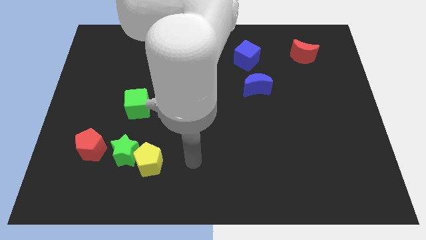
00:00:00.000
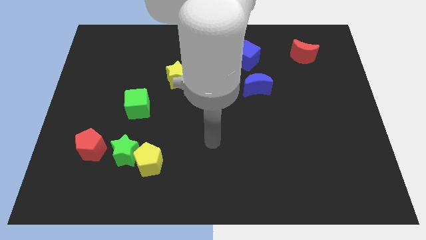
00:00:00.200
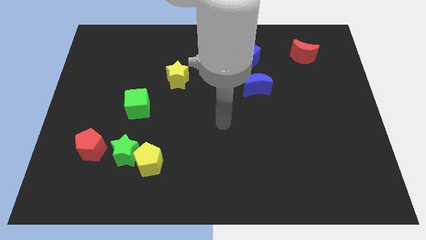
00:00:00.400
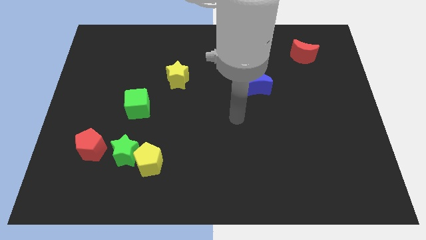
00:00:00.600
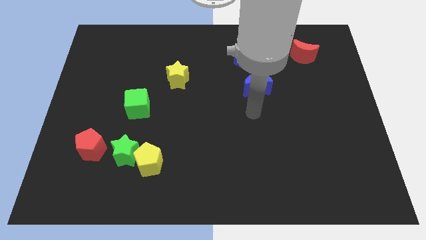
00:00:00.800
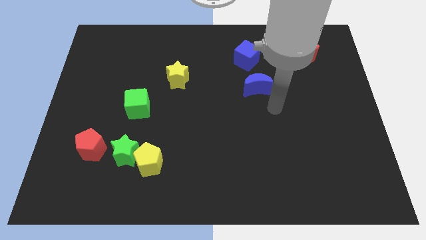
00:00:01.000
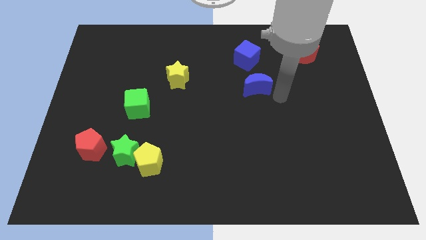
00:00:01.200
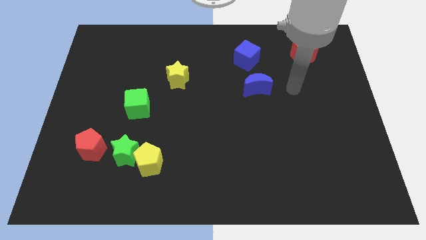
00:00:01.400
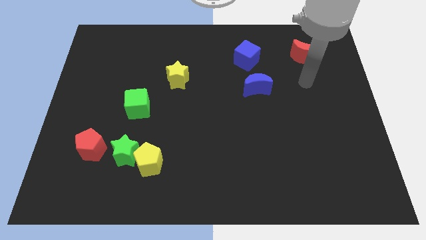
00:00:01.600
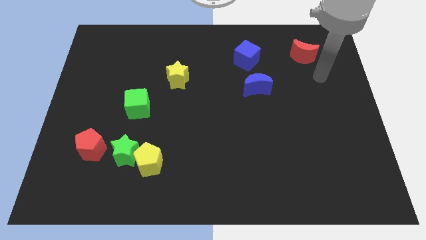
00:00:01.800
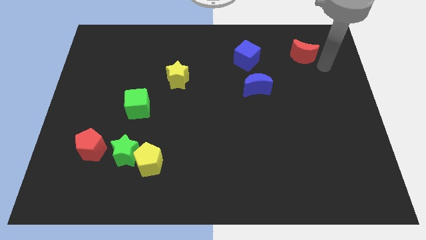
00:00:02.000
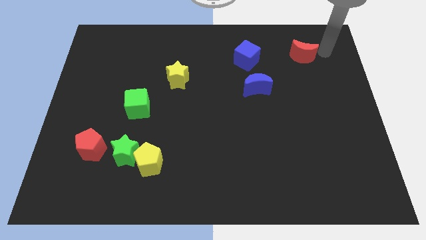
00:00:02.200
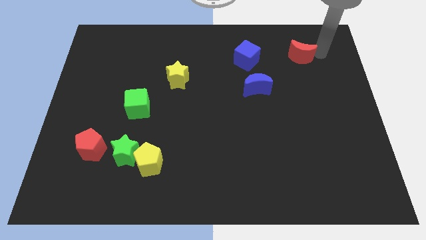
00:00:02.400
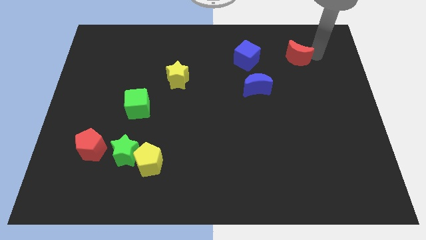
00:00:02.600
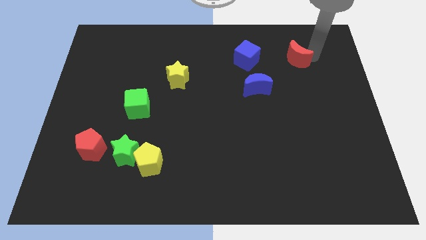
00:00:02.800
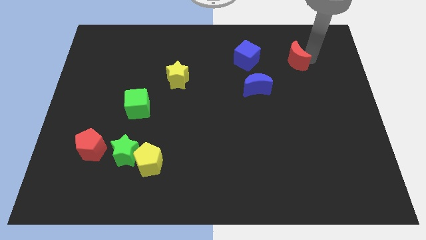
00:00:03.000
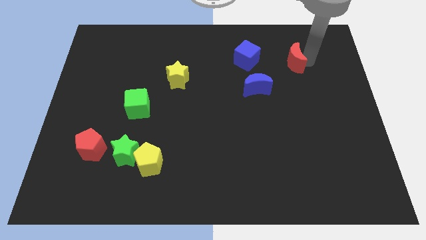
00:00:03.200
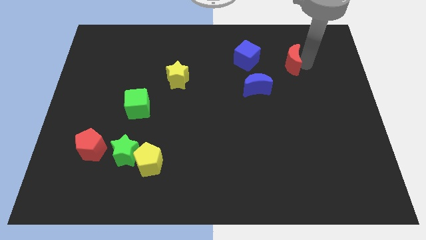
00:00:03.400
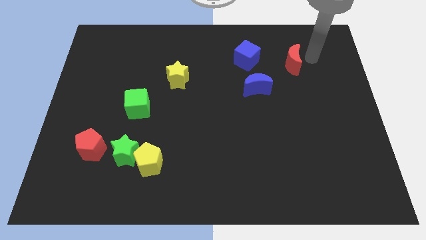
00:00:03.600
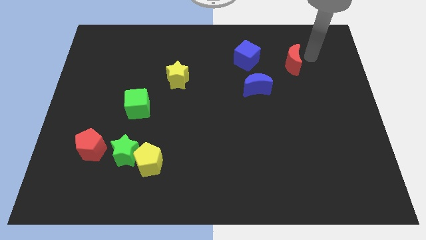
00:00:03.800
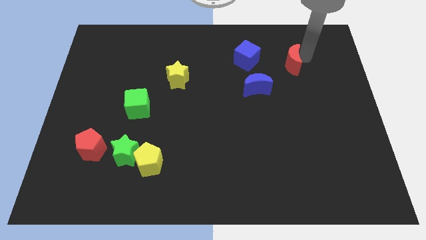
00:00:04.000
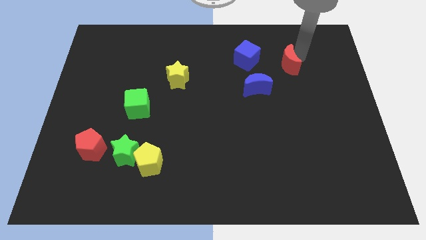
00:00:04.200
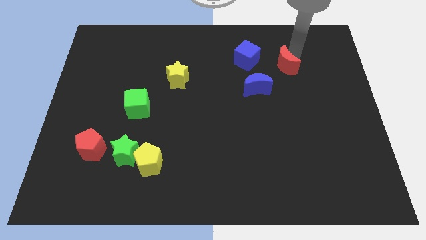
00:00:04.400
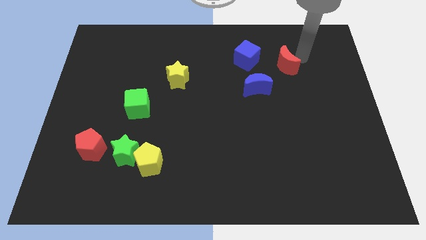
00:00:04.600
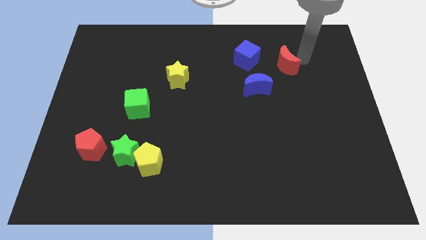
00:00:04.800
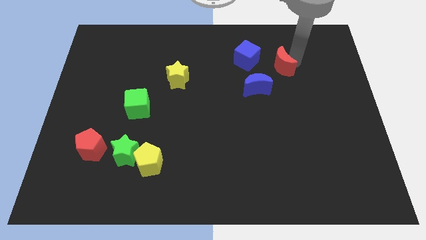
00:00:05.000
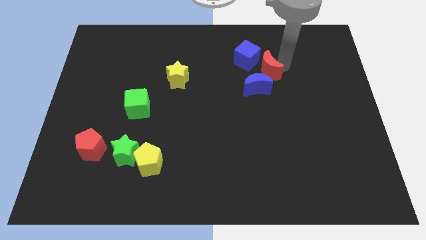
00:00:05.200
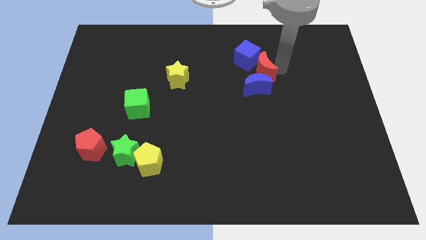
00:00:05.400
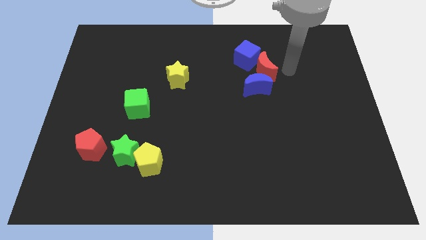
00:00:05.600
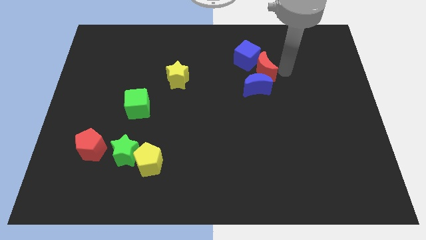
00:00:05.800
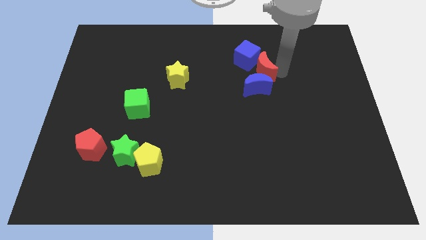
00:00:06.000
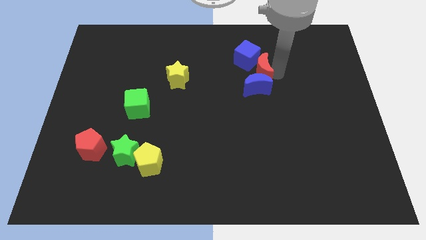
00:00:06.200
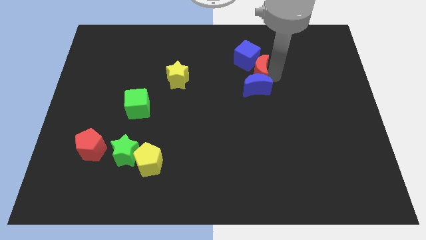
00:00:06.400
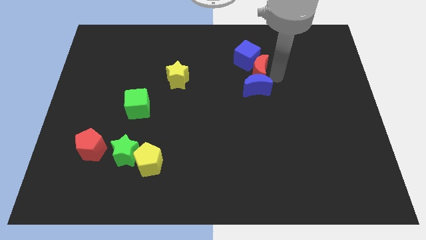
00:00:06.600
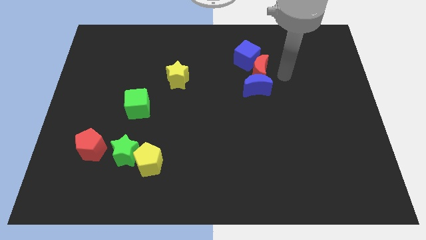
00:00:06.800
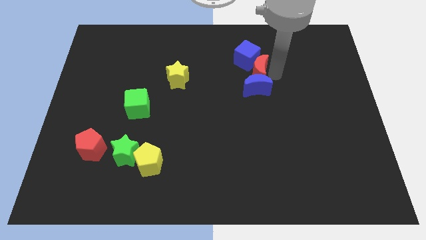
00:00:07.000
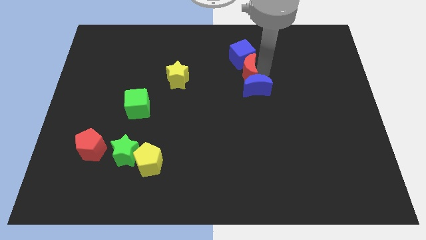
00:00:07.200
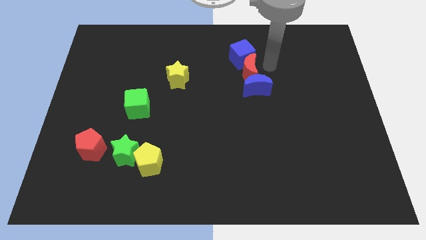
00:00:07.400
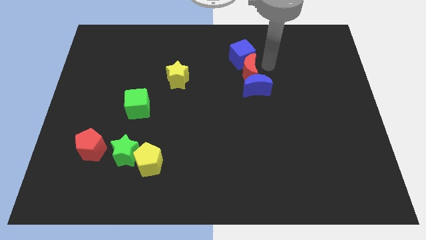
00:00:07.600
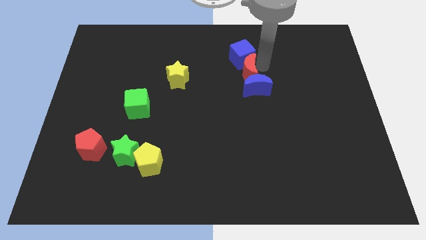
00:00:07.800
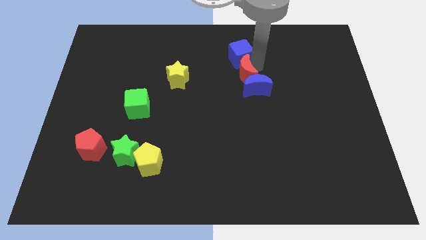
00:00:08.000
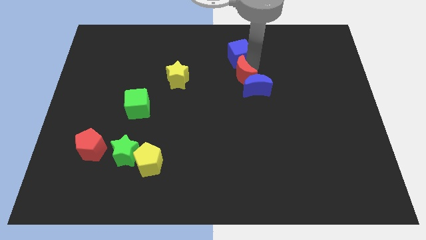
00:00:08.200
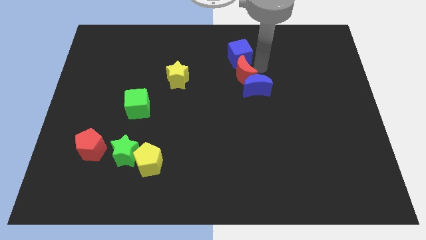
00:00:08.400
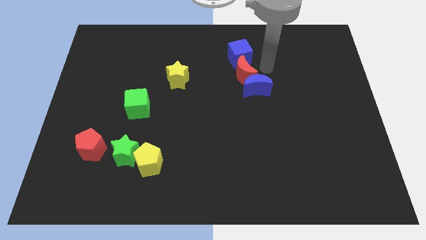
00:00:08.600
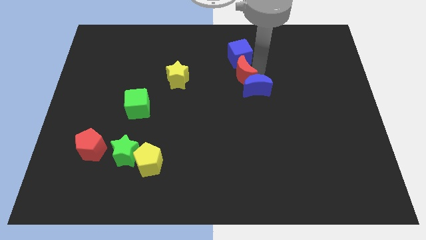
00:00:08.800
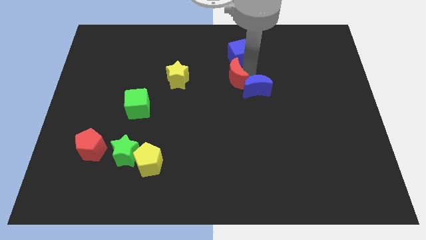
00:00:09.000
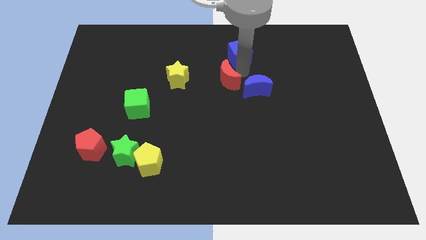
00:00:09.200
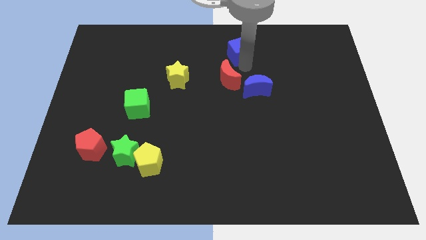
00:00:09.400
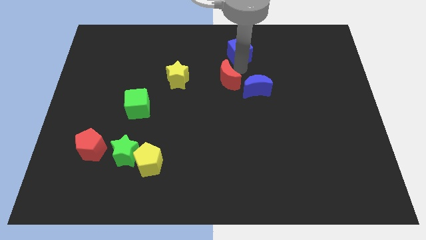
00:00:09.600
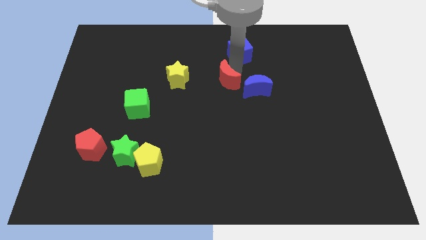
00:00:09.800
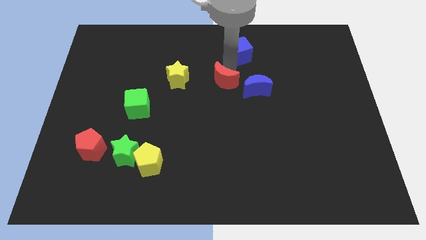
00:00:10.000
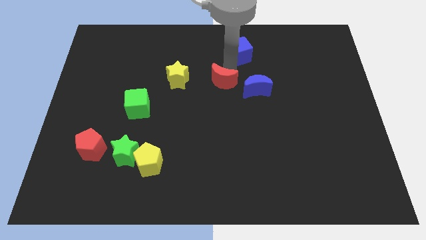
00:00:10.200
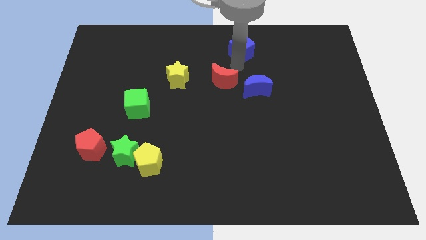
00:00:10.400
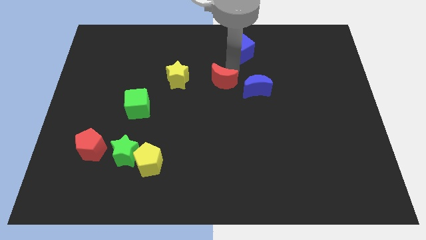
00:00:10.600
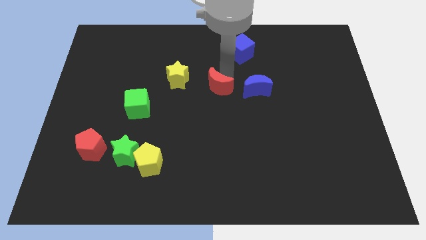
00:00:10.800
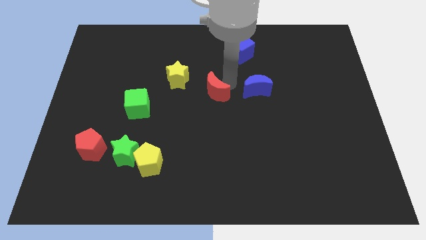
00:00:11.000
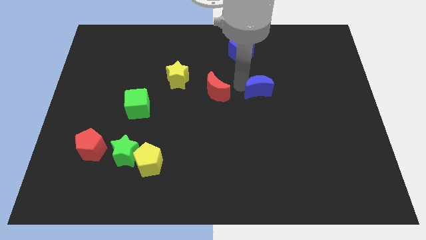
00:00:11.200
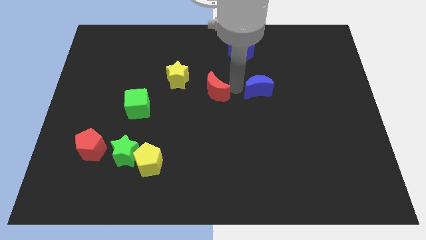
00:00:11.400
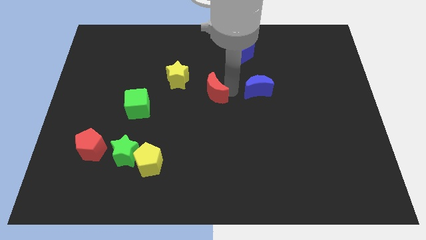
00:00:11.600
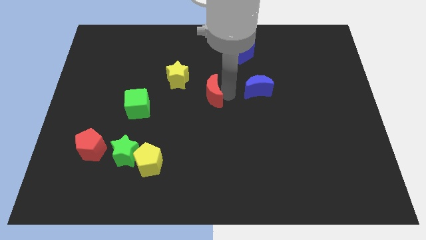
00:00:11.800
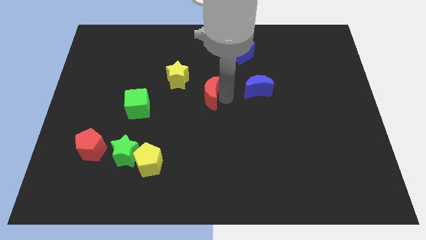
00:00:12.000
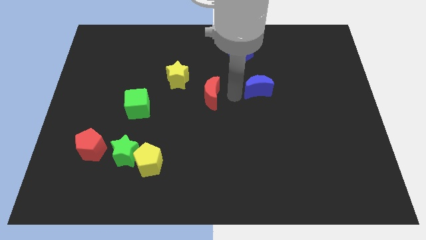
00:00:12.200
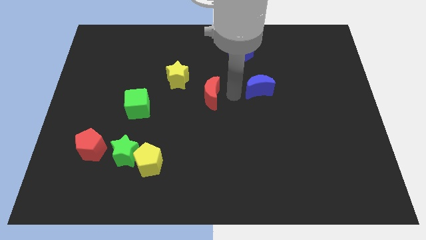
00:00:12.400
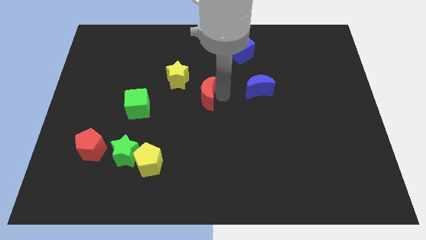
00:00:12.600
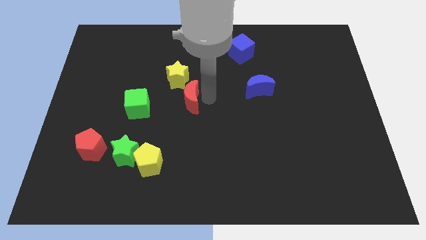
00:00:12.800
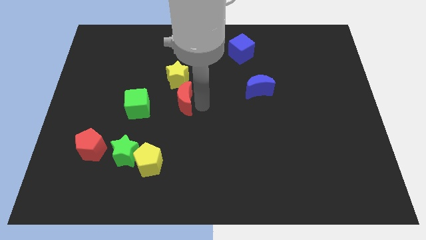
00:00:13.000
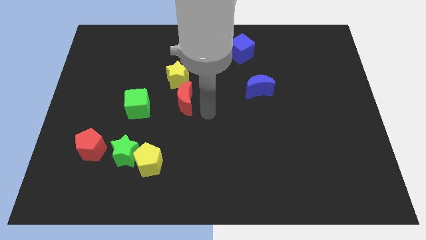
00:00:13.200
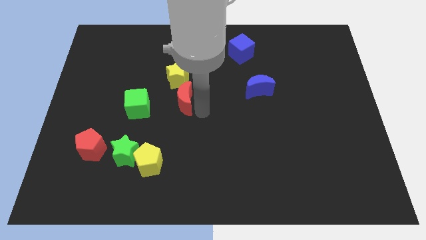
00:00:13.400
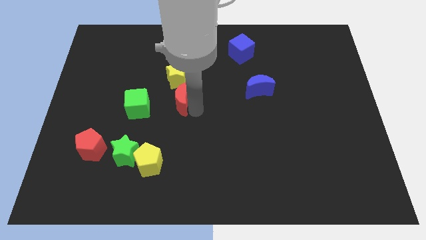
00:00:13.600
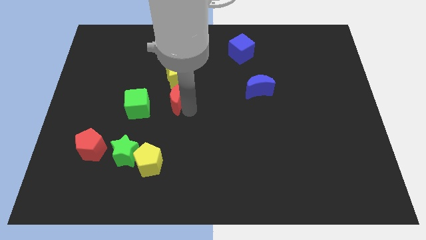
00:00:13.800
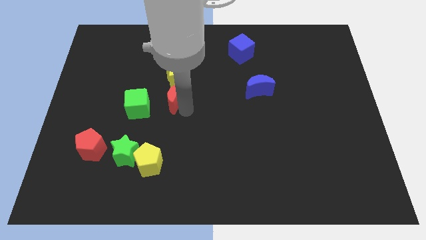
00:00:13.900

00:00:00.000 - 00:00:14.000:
slide the red moon to the top right side of the green cube
